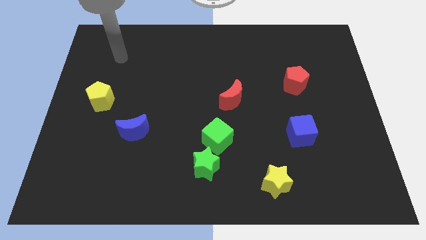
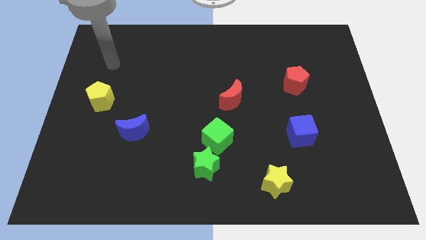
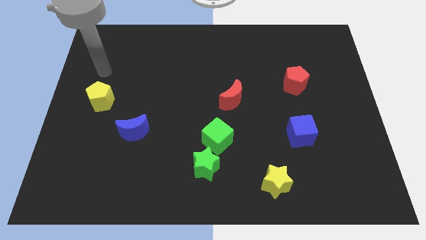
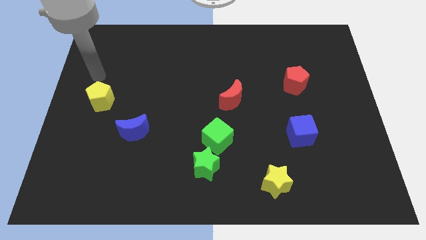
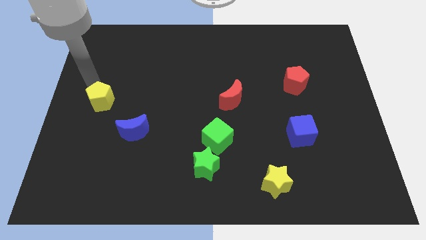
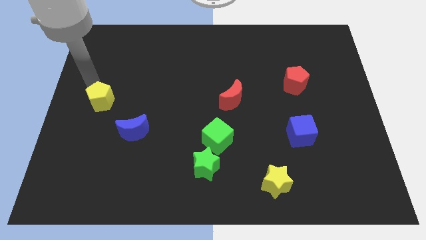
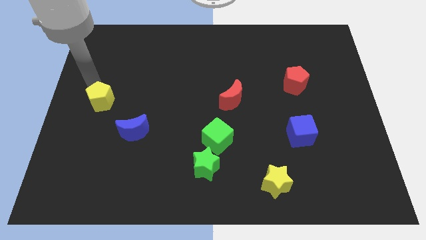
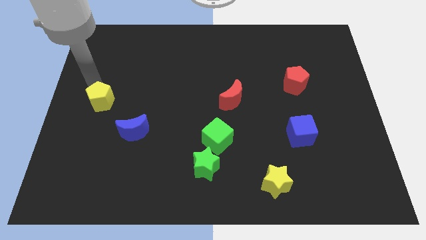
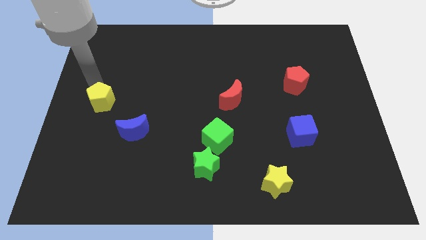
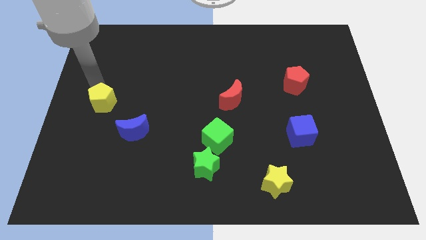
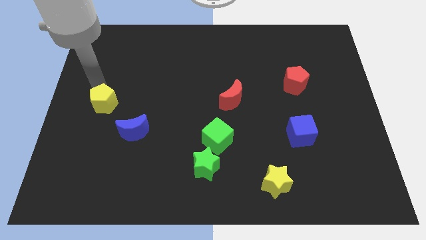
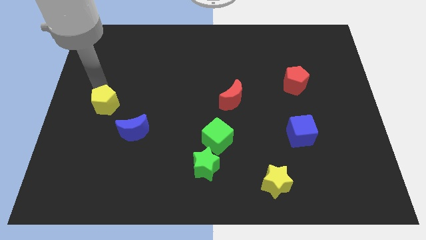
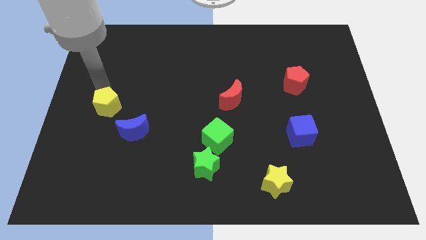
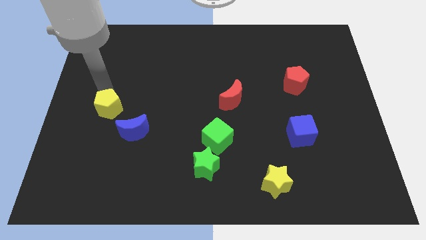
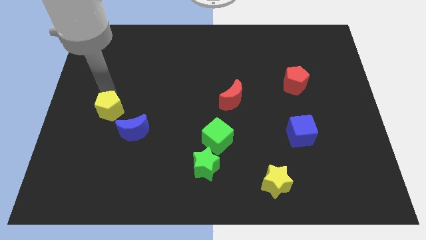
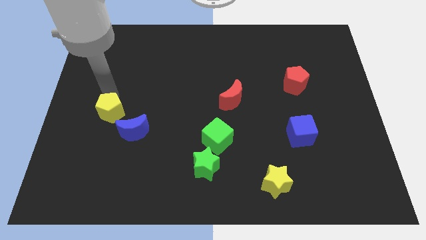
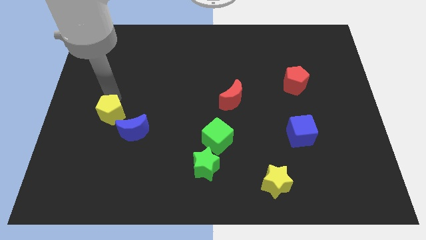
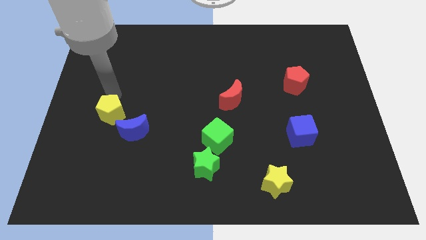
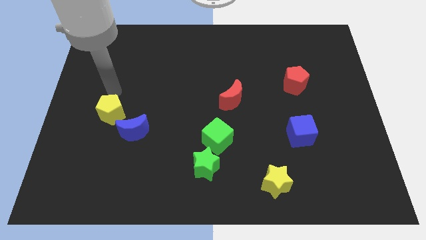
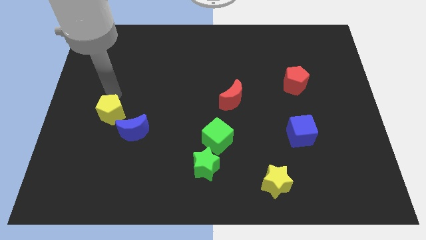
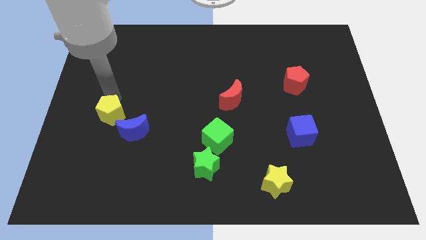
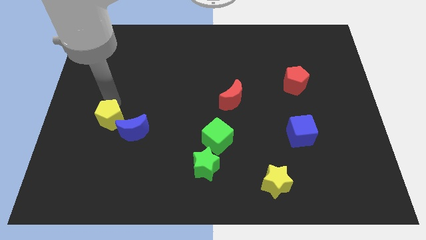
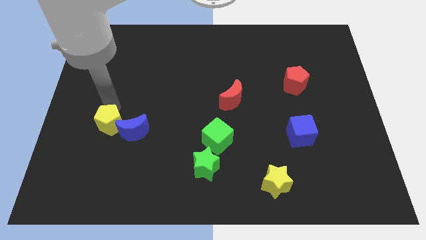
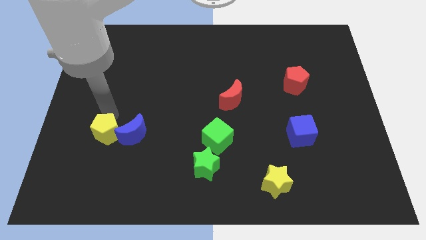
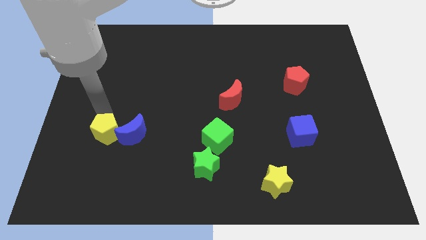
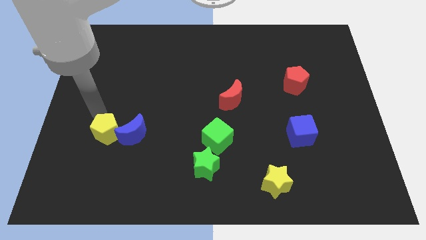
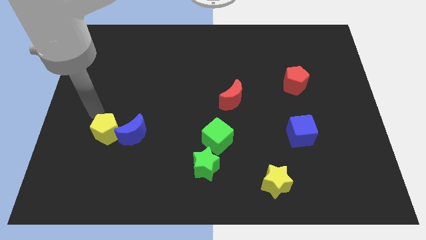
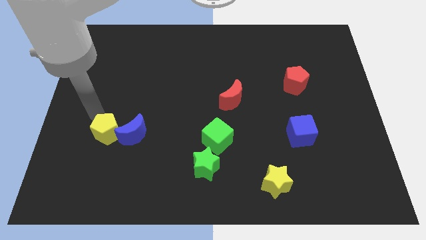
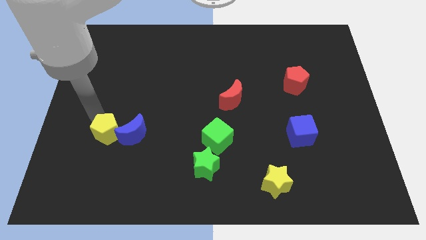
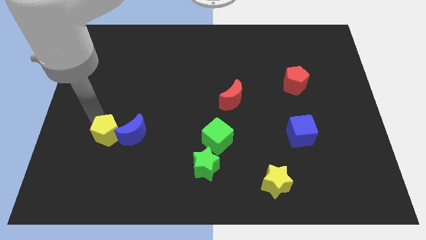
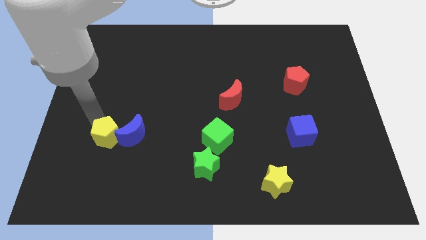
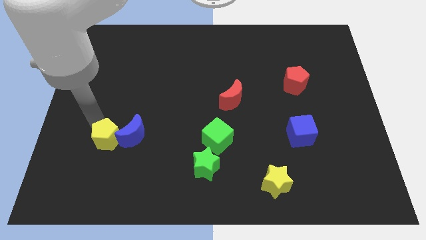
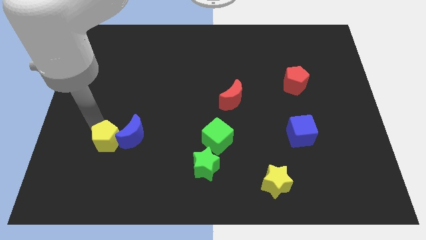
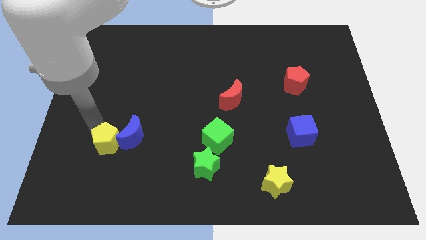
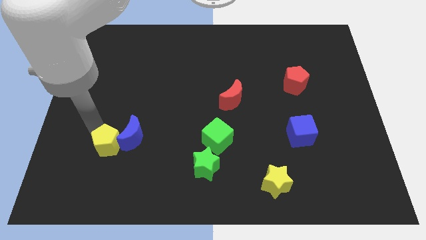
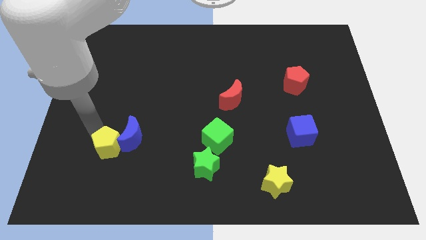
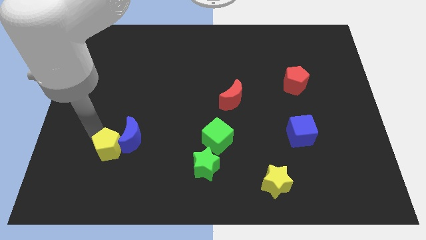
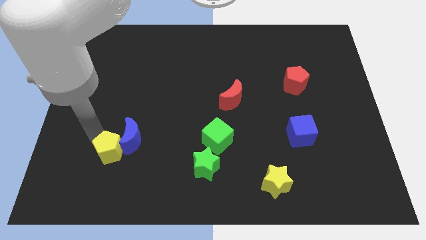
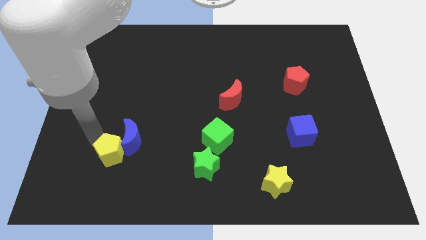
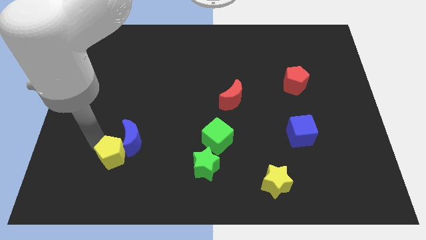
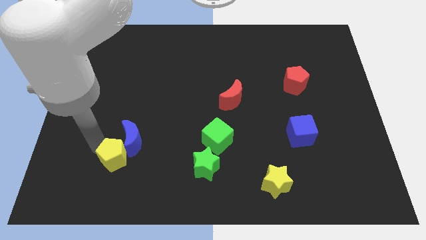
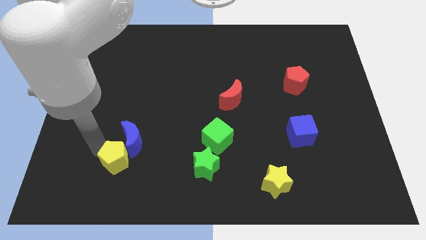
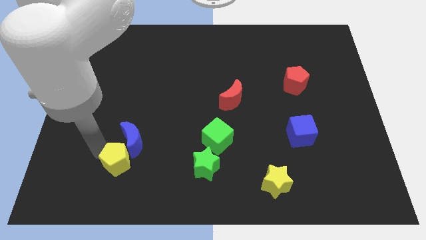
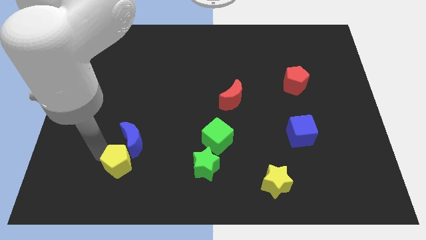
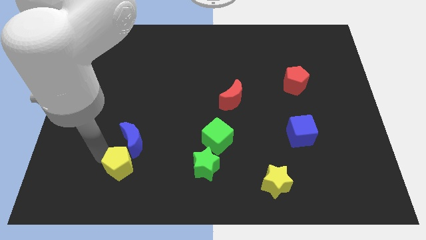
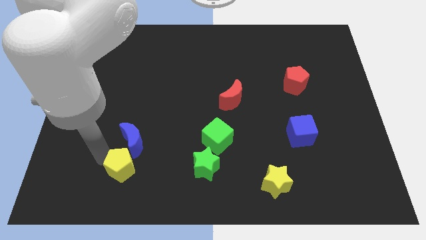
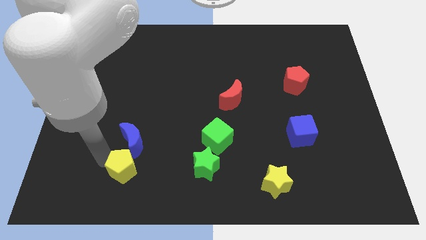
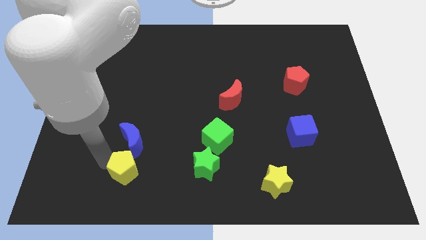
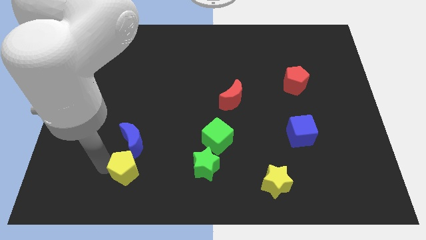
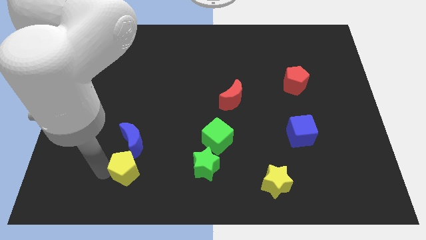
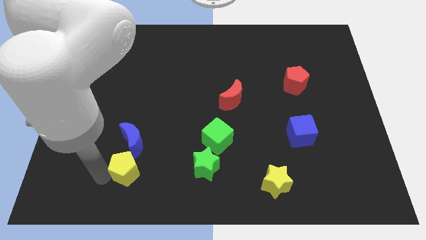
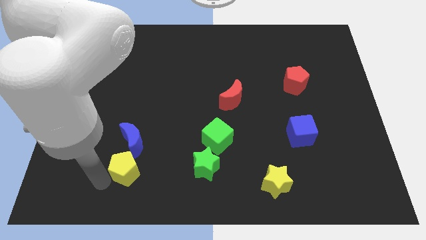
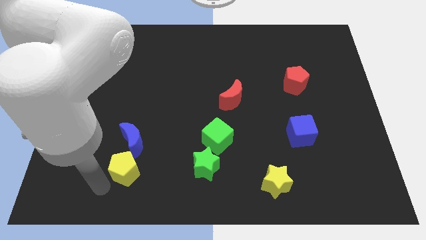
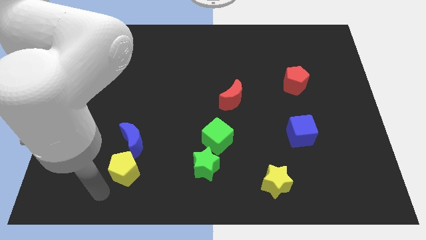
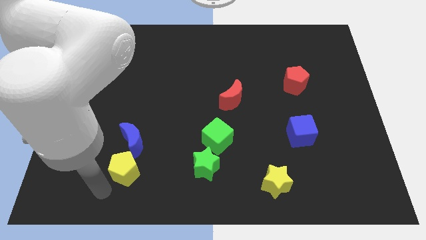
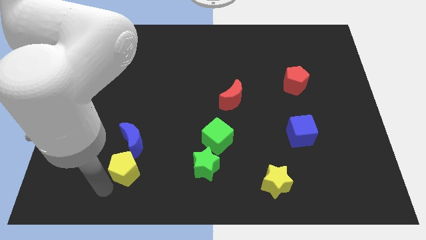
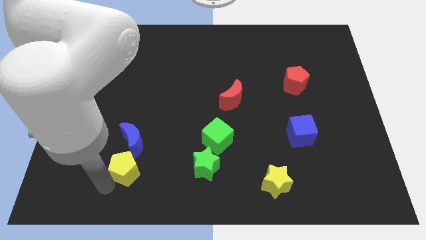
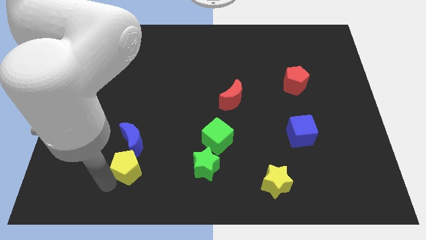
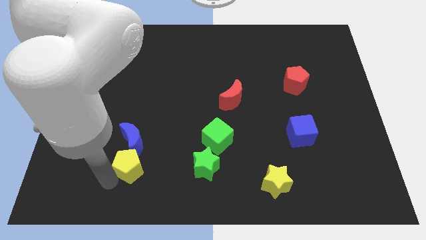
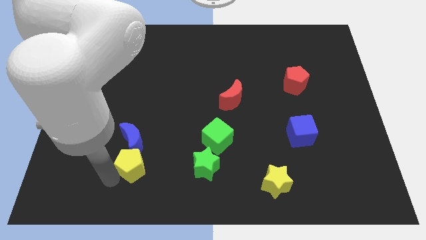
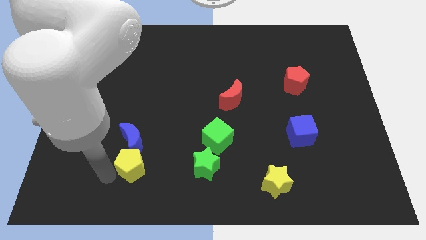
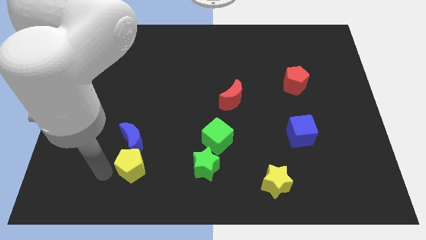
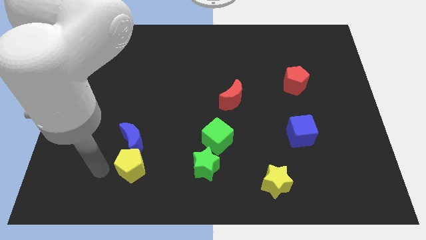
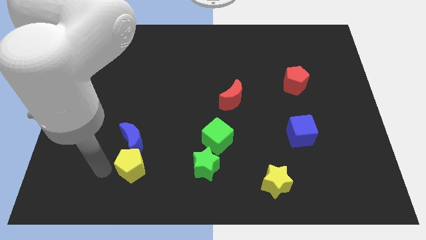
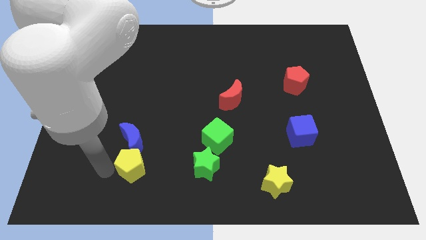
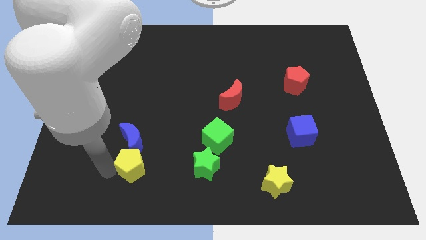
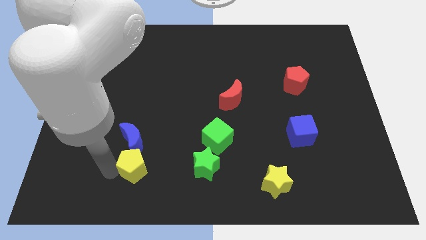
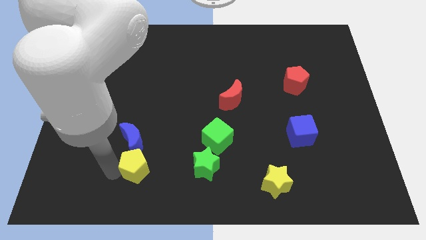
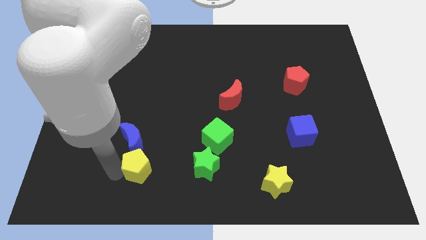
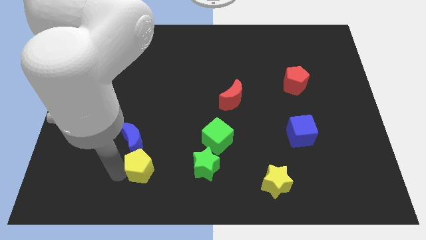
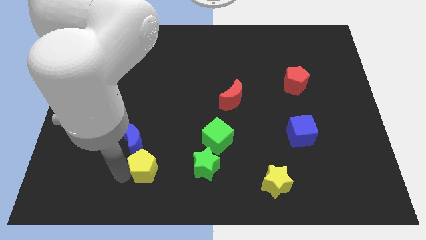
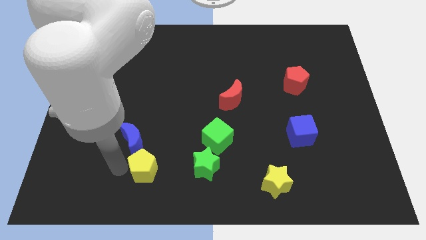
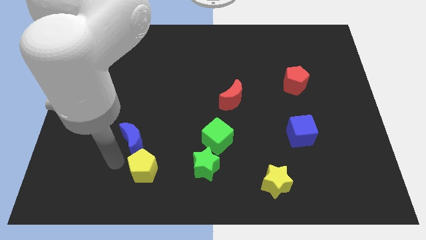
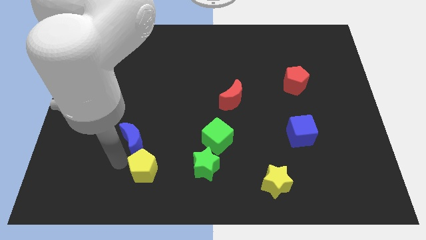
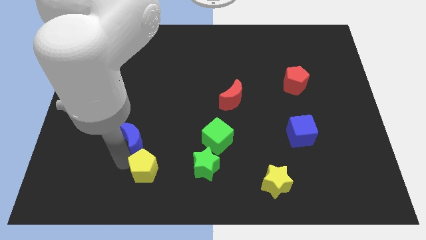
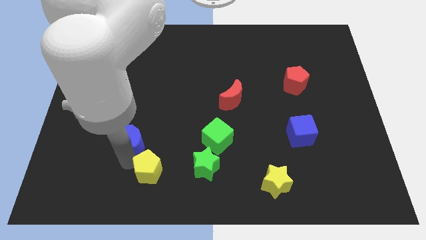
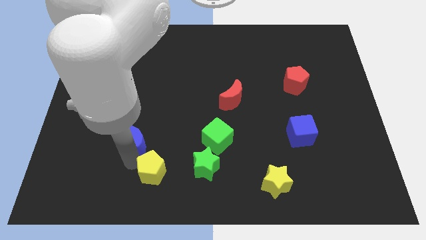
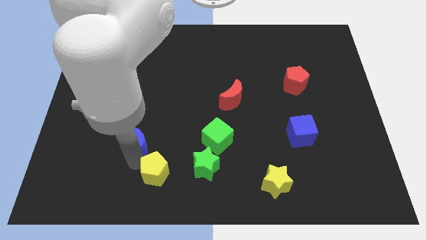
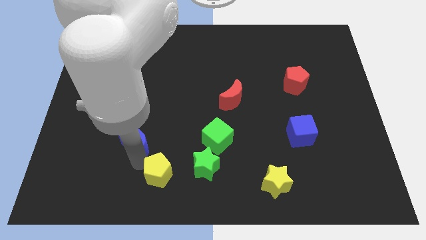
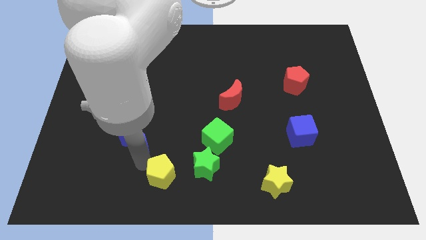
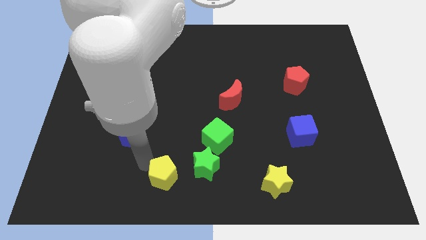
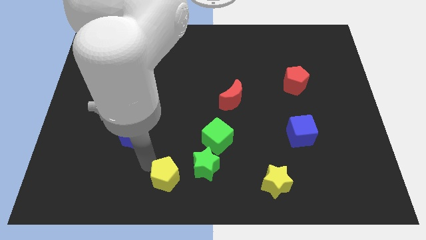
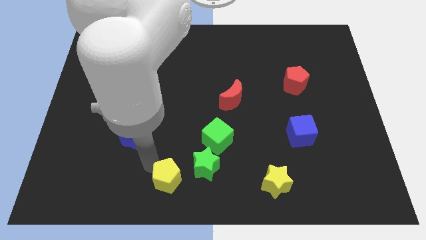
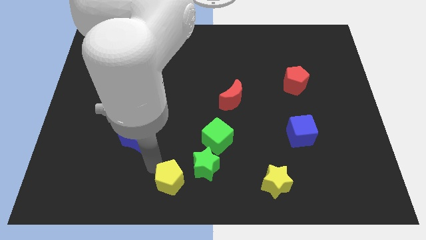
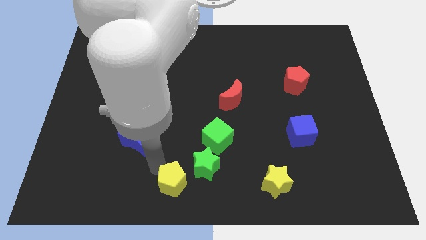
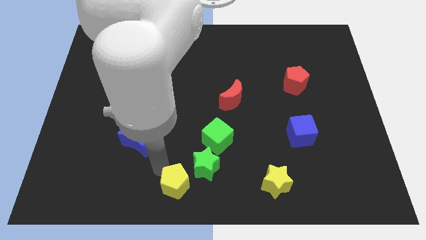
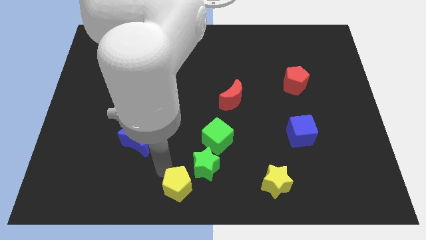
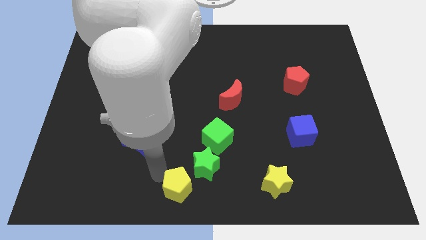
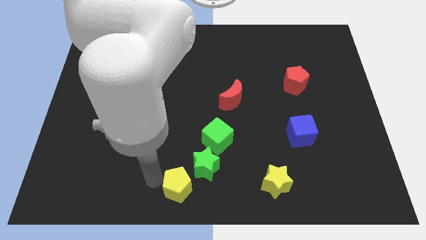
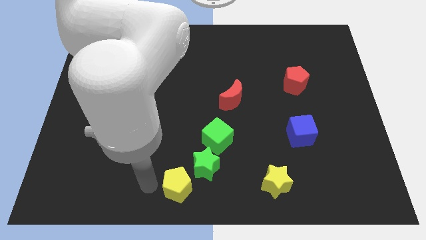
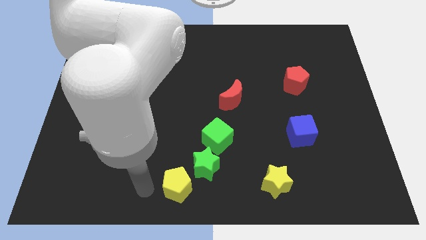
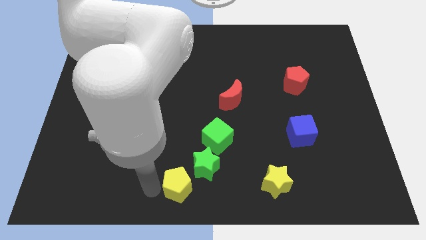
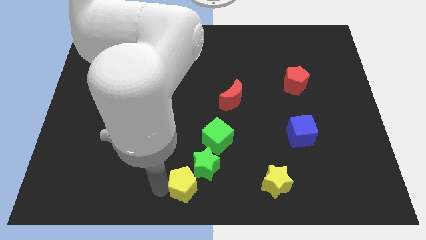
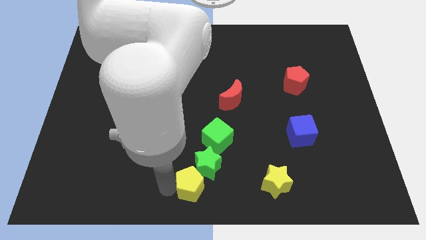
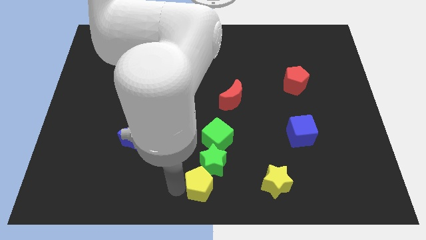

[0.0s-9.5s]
move the yellow pentagon just left of the yellow star
